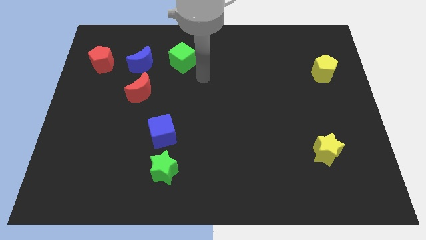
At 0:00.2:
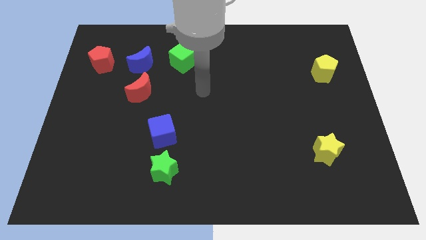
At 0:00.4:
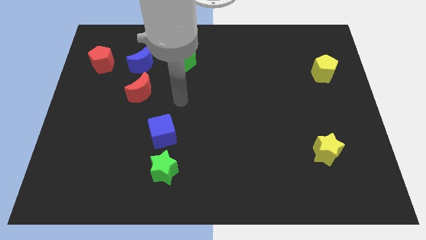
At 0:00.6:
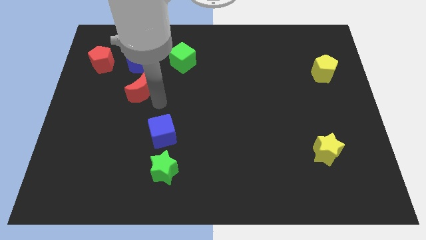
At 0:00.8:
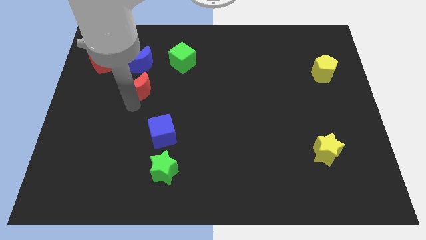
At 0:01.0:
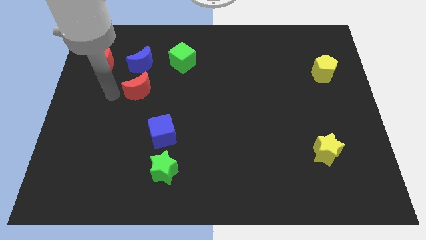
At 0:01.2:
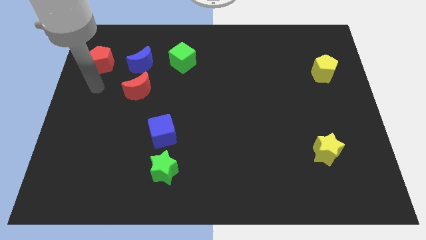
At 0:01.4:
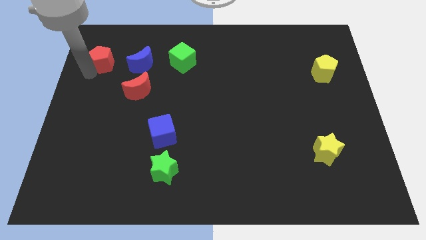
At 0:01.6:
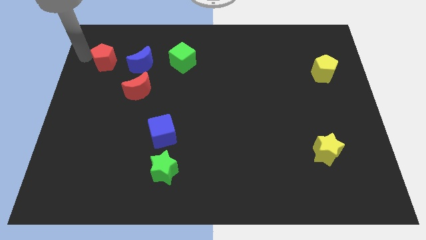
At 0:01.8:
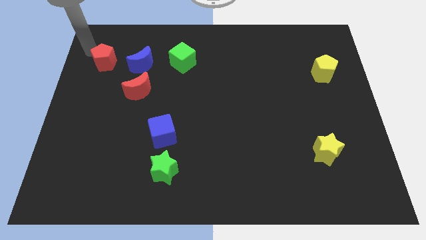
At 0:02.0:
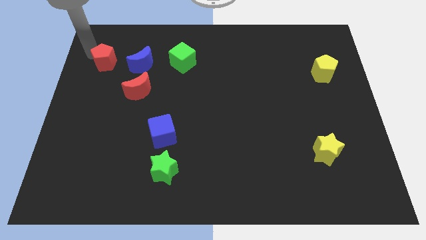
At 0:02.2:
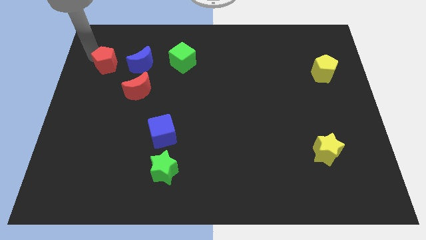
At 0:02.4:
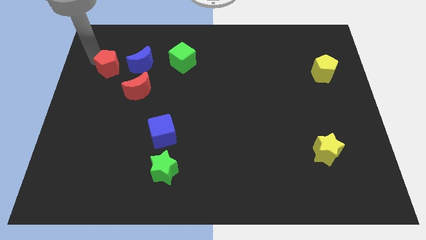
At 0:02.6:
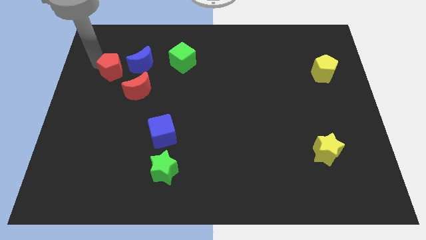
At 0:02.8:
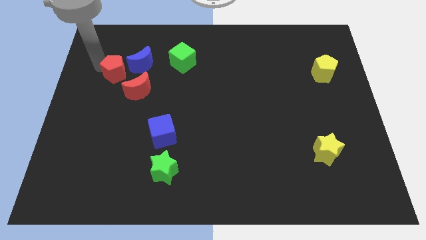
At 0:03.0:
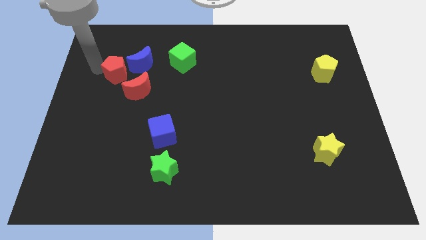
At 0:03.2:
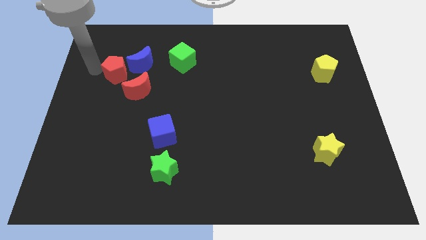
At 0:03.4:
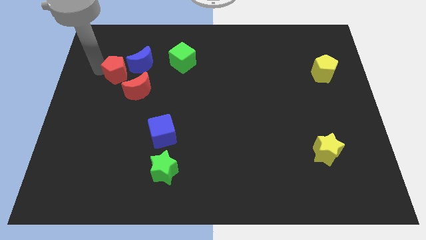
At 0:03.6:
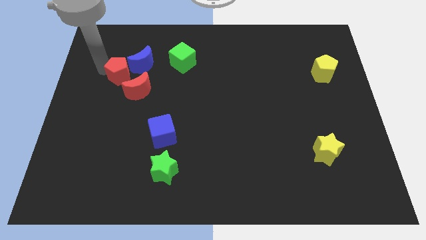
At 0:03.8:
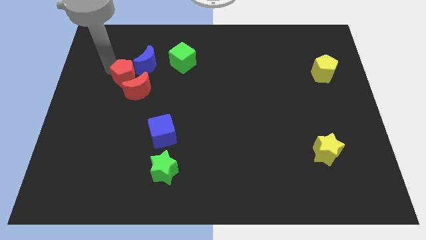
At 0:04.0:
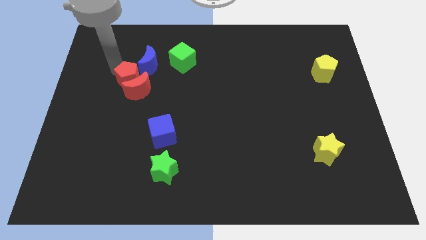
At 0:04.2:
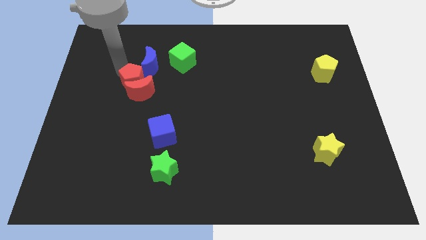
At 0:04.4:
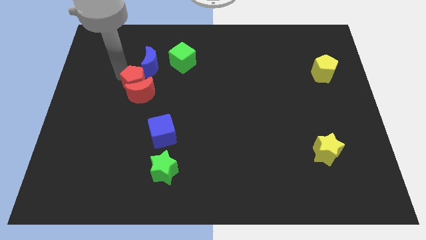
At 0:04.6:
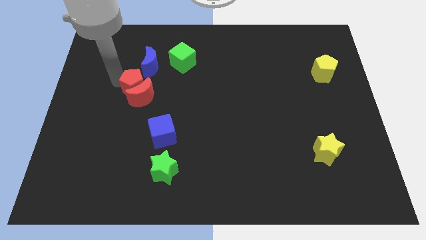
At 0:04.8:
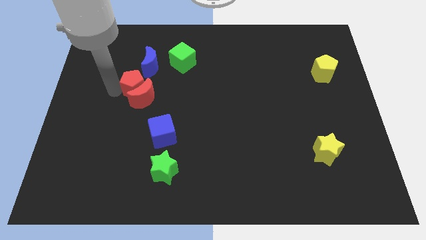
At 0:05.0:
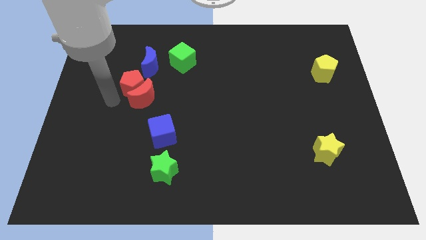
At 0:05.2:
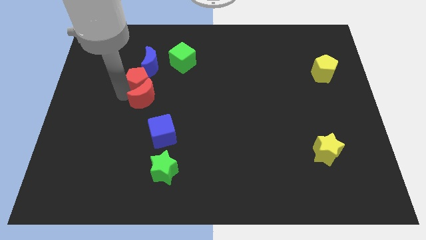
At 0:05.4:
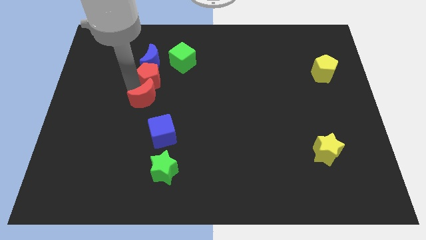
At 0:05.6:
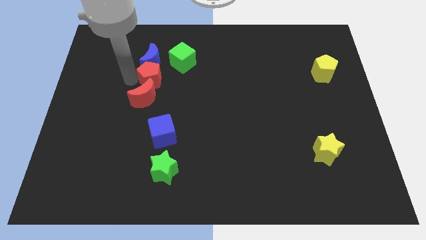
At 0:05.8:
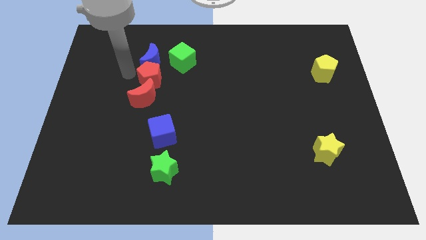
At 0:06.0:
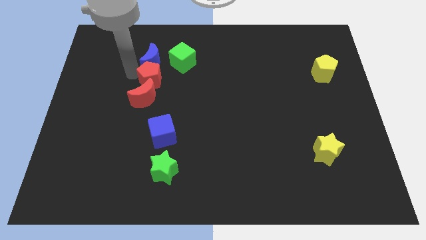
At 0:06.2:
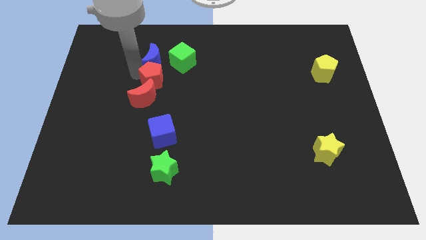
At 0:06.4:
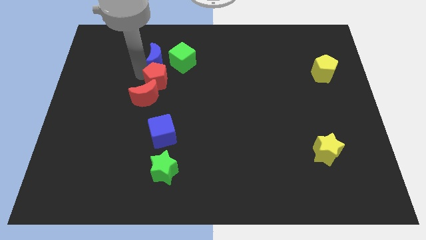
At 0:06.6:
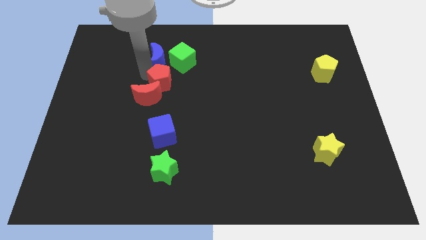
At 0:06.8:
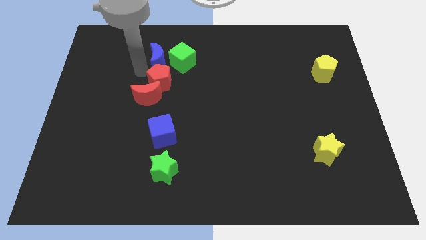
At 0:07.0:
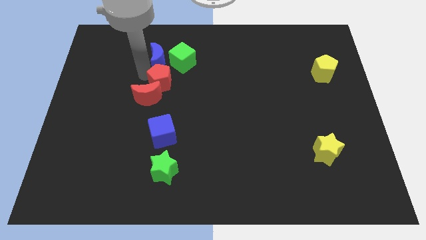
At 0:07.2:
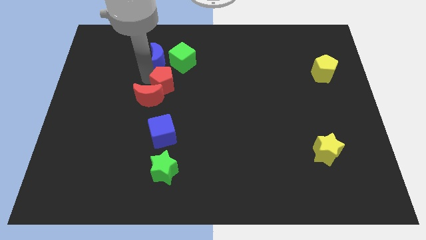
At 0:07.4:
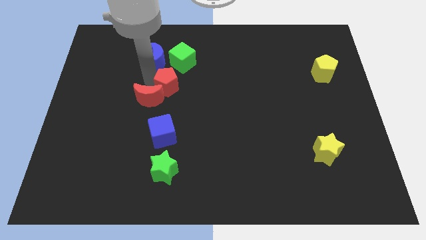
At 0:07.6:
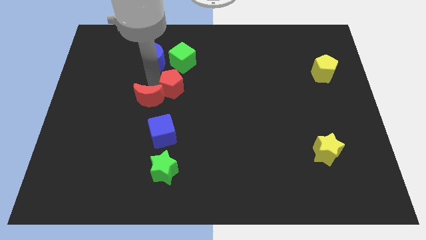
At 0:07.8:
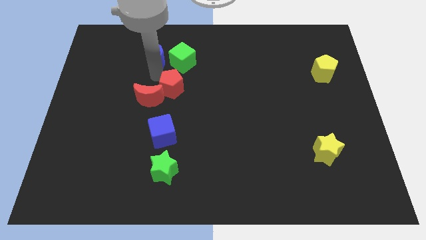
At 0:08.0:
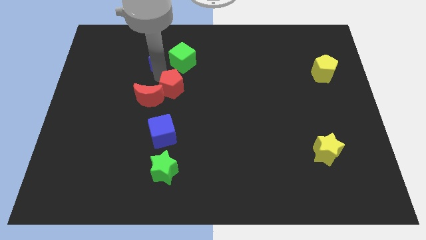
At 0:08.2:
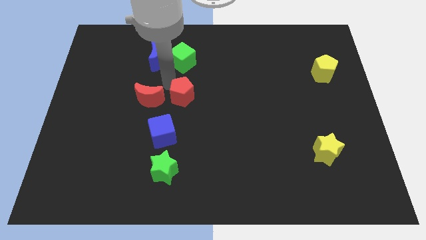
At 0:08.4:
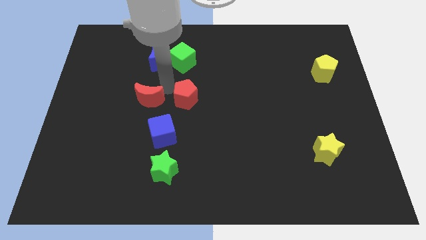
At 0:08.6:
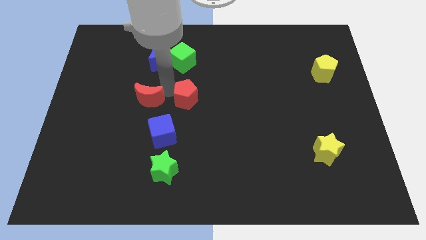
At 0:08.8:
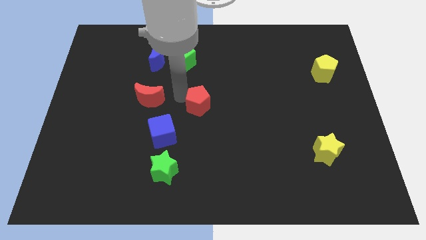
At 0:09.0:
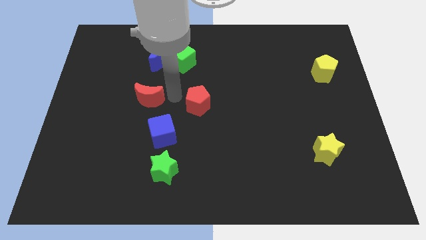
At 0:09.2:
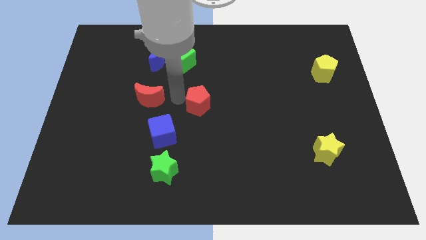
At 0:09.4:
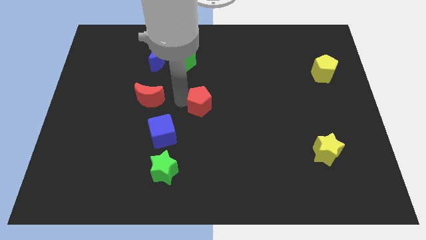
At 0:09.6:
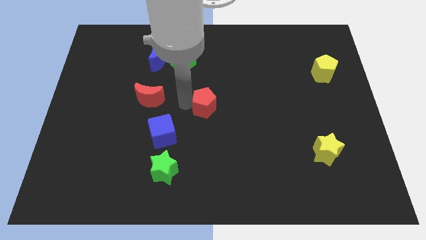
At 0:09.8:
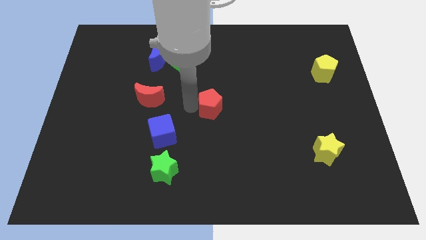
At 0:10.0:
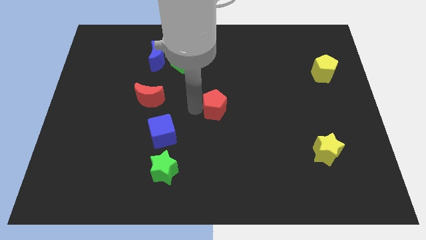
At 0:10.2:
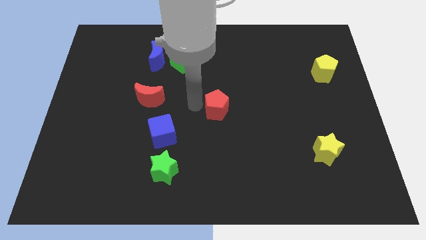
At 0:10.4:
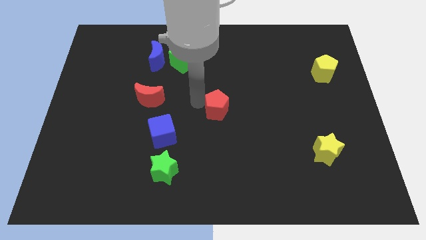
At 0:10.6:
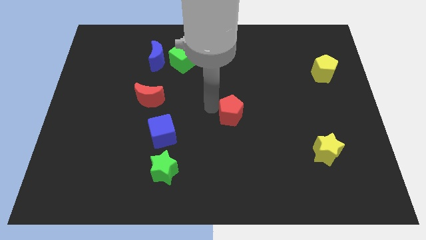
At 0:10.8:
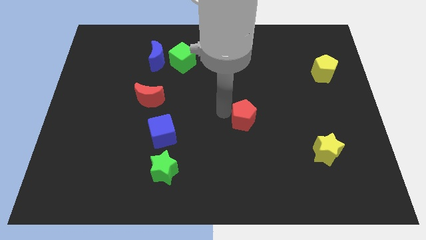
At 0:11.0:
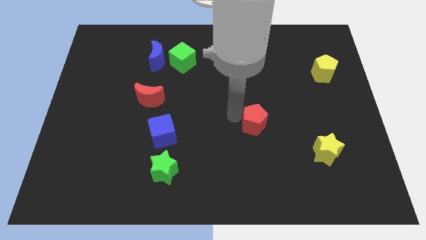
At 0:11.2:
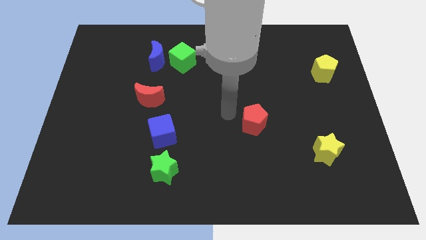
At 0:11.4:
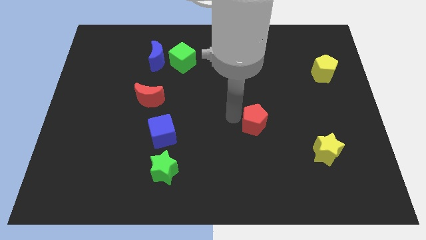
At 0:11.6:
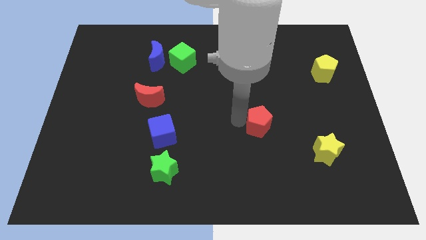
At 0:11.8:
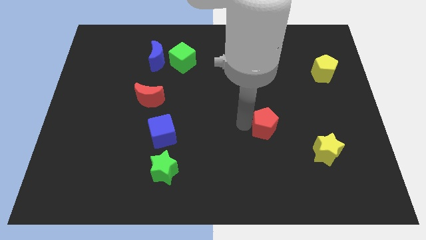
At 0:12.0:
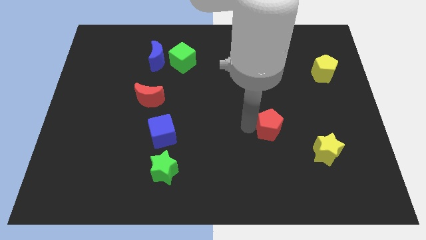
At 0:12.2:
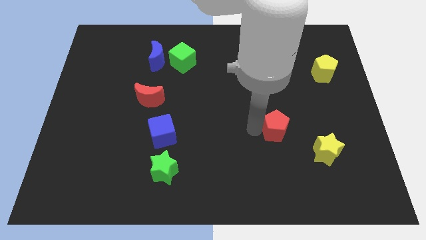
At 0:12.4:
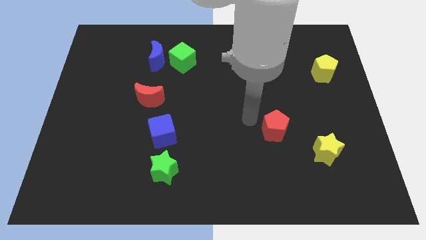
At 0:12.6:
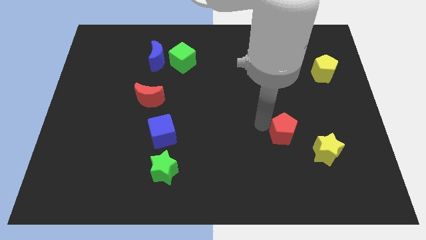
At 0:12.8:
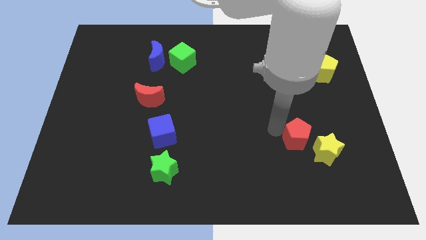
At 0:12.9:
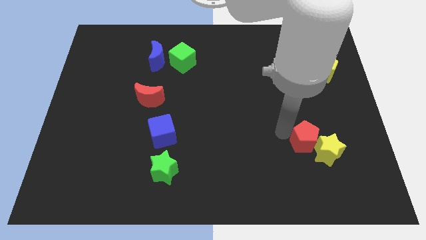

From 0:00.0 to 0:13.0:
move the red pentagon next to the yellow star
